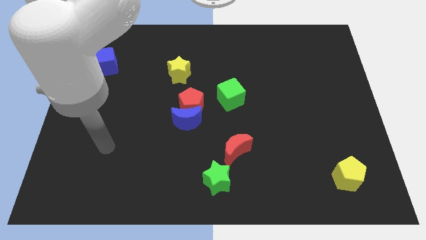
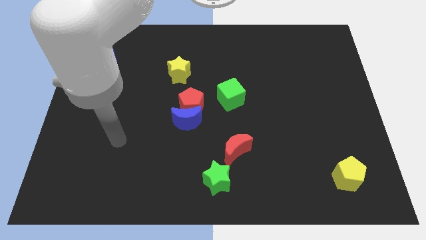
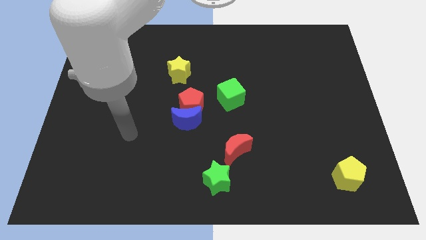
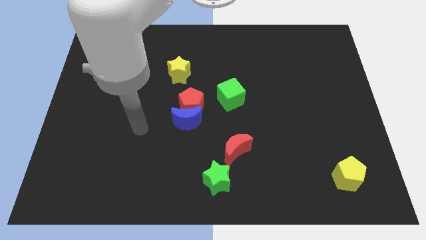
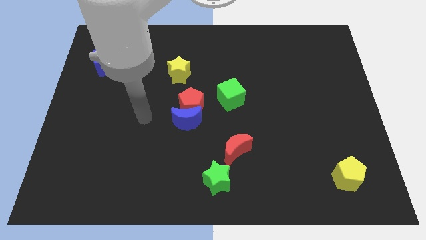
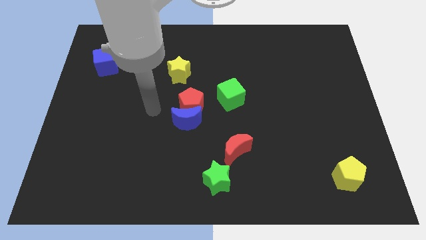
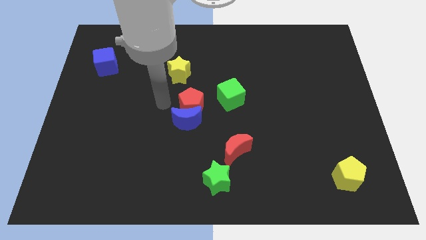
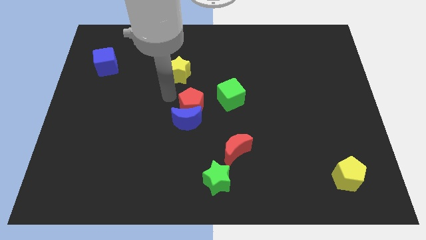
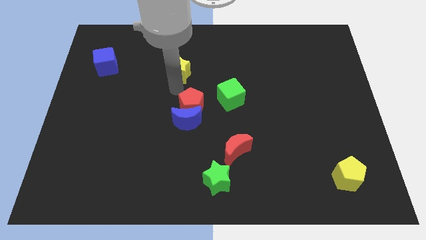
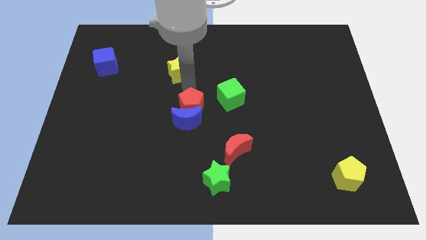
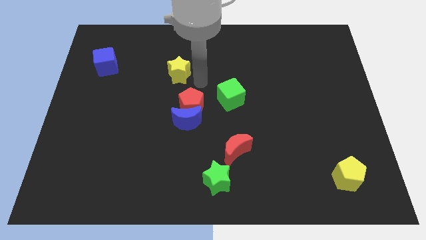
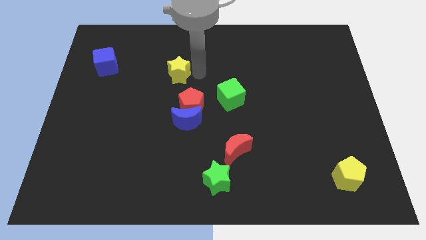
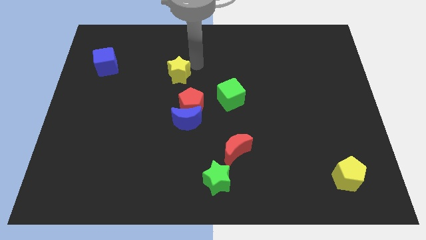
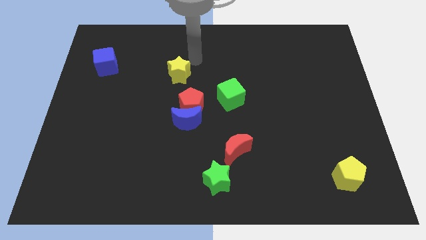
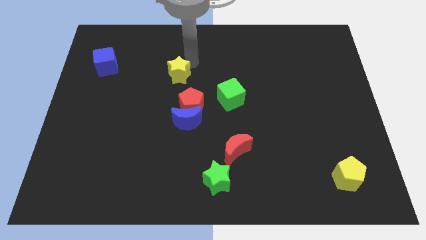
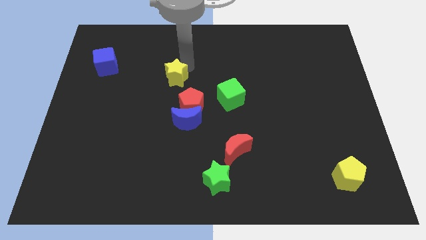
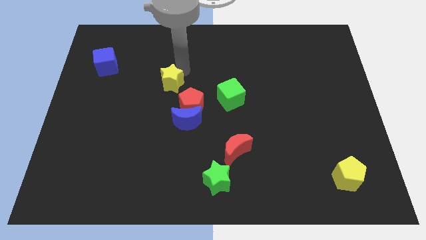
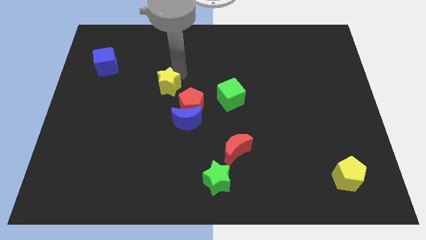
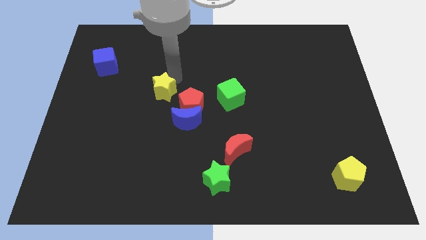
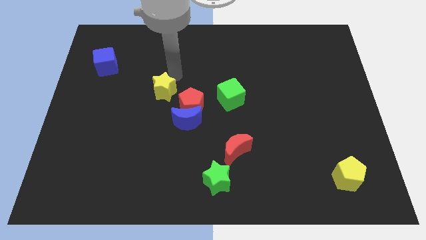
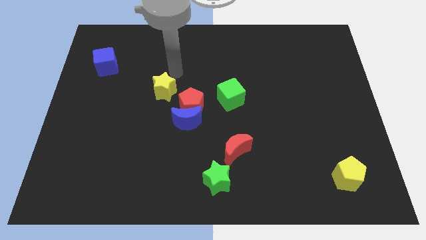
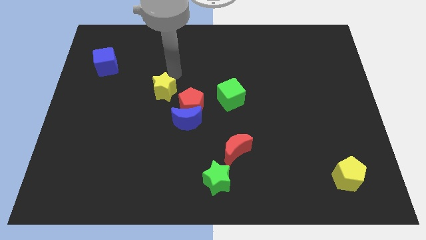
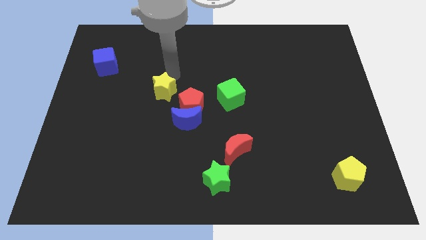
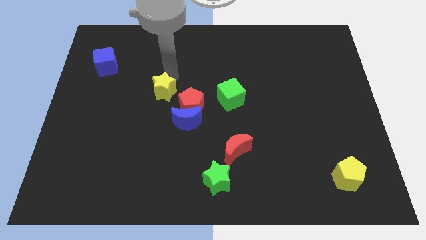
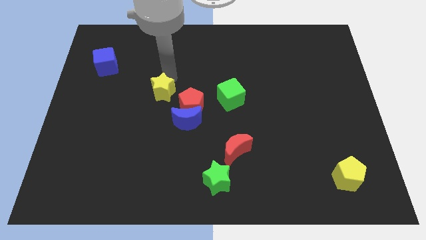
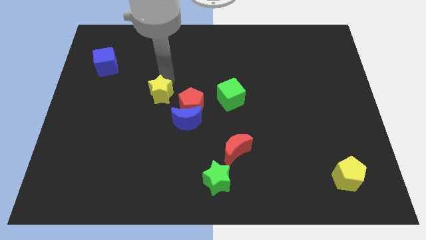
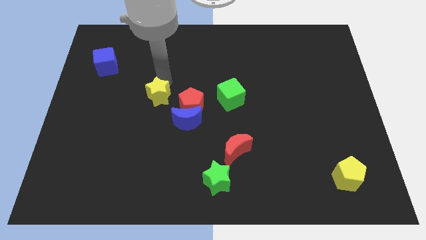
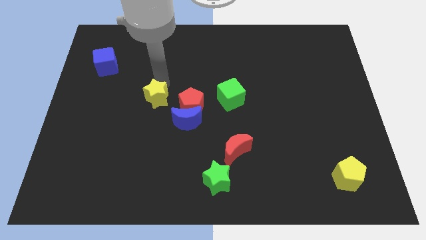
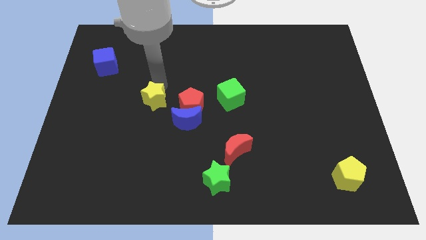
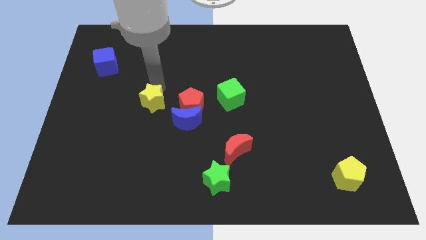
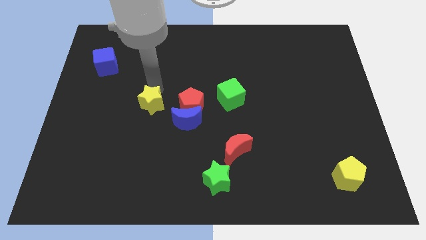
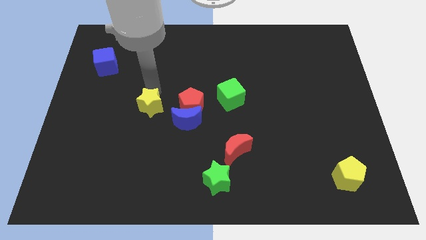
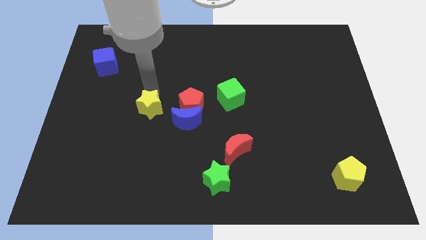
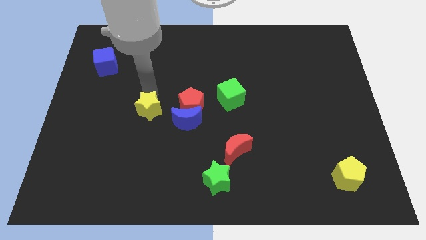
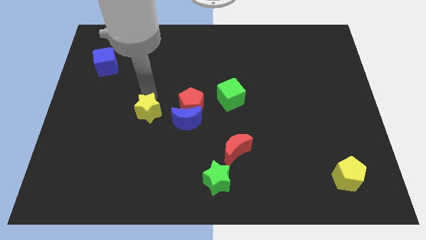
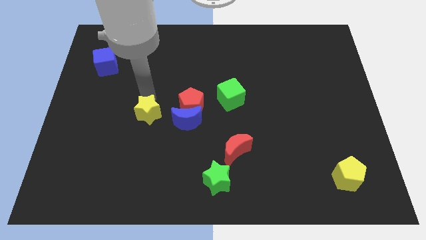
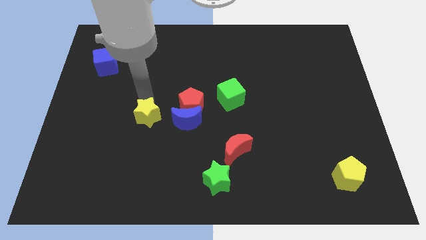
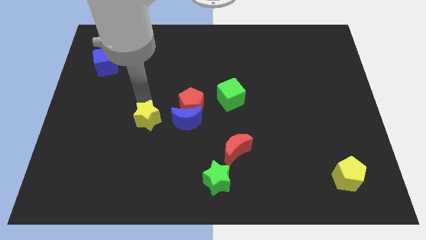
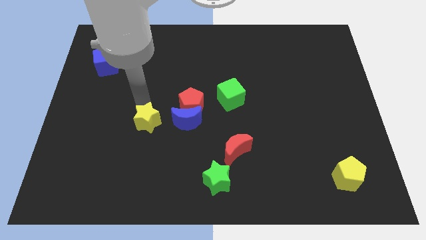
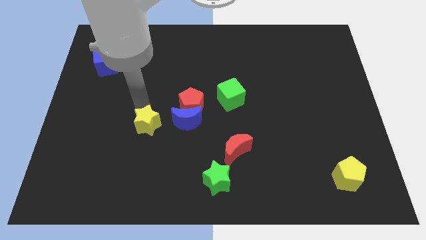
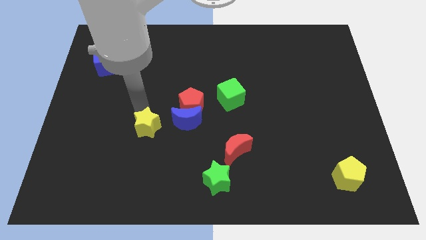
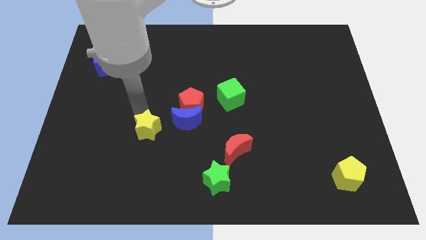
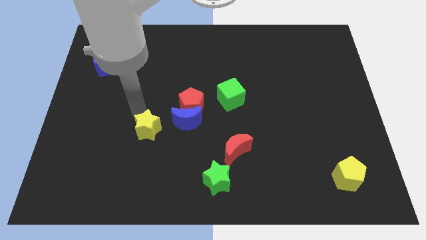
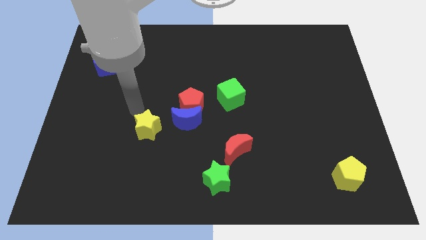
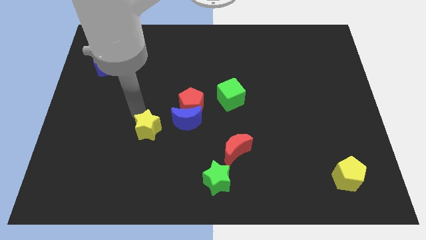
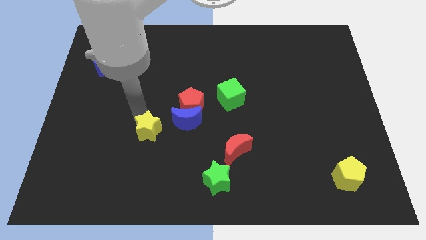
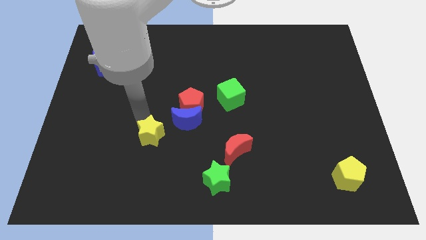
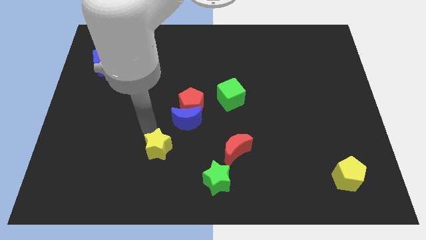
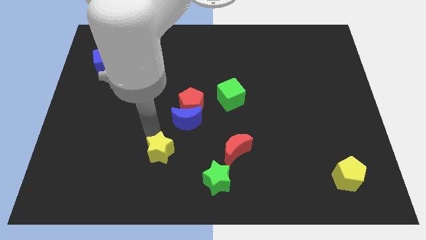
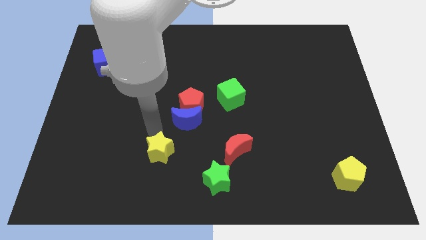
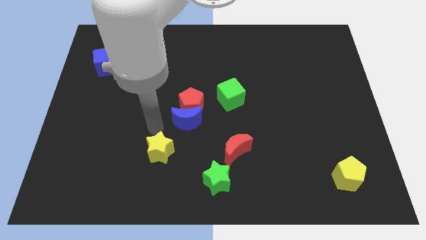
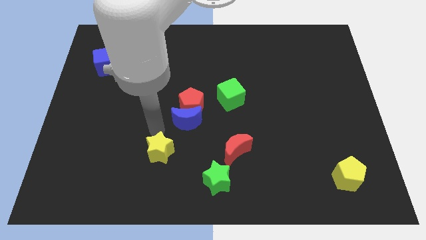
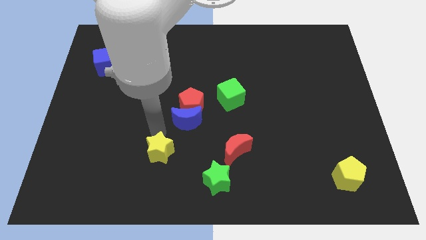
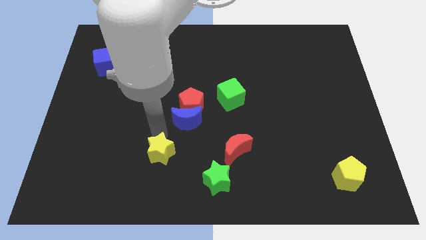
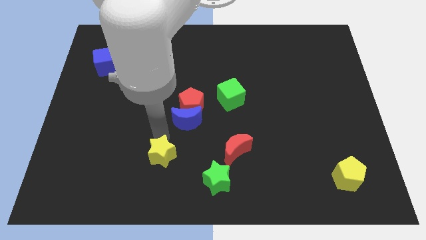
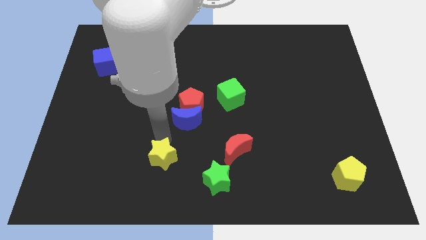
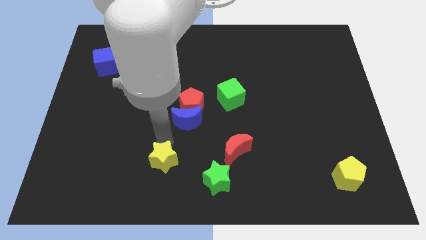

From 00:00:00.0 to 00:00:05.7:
push the yellow star to the left side of the green star

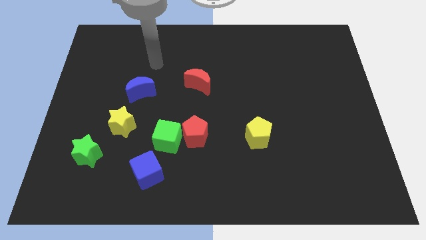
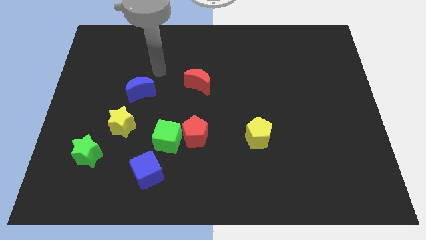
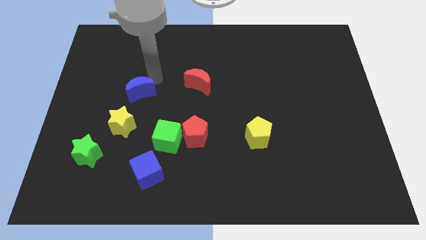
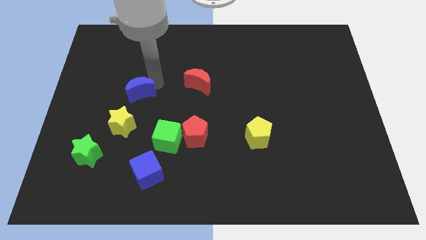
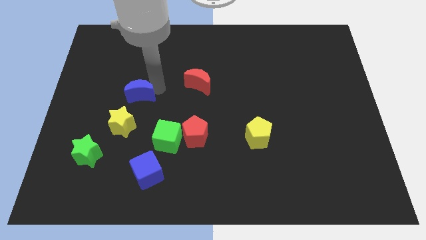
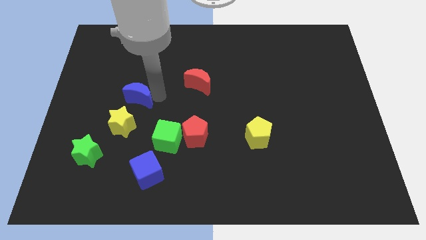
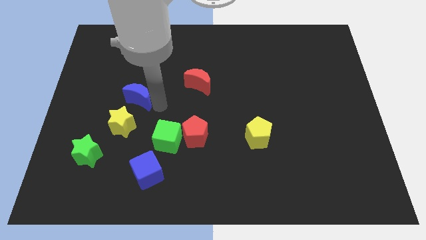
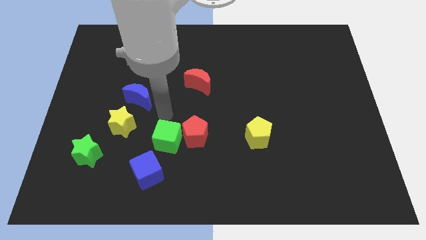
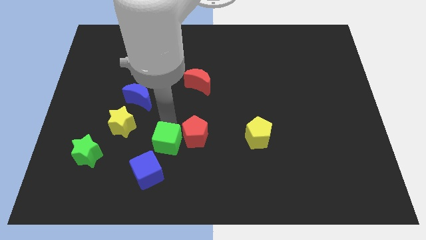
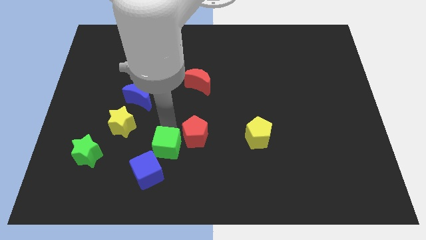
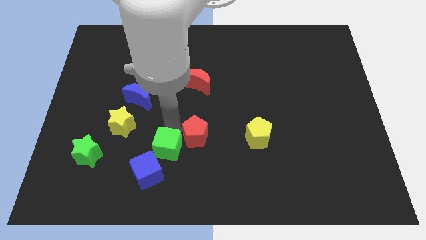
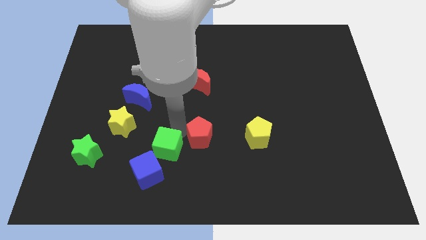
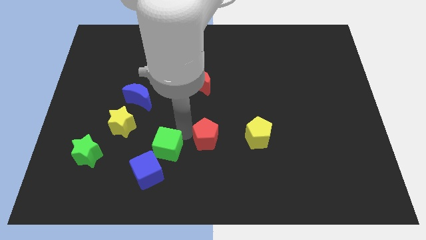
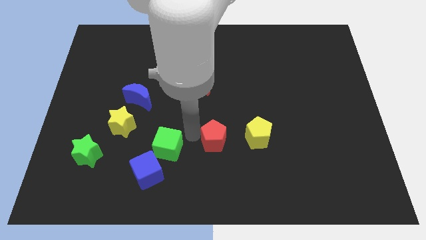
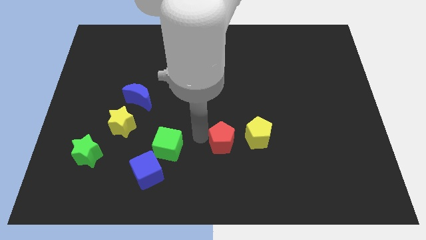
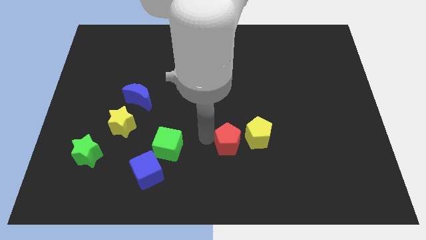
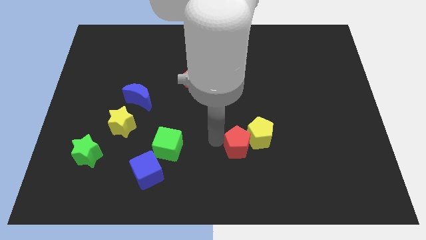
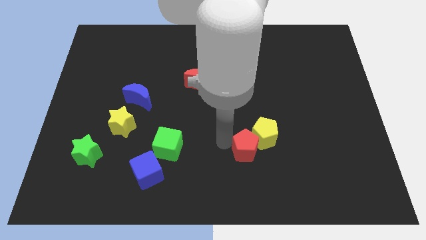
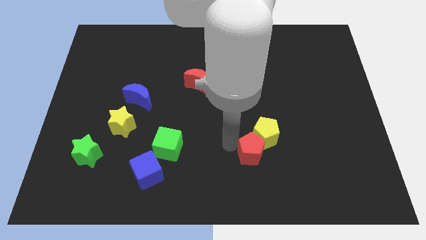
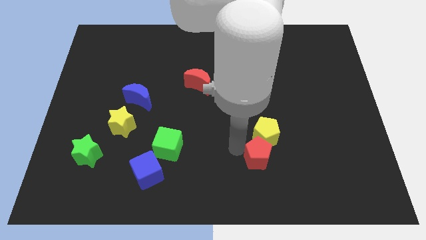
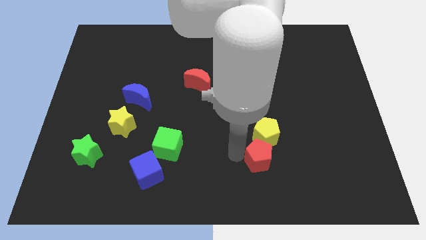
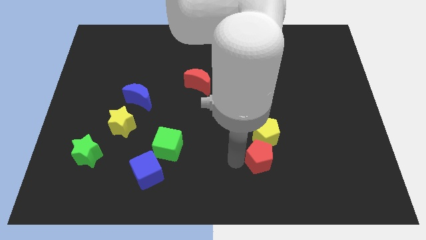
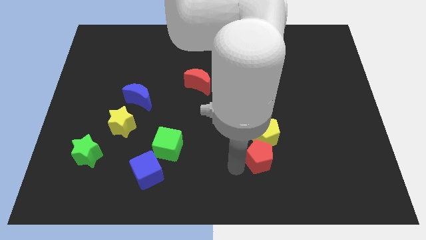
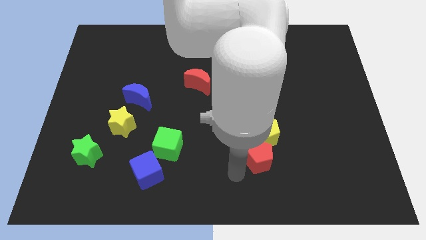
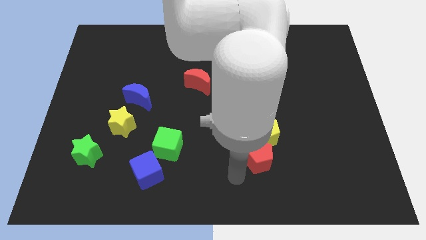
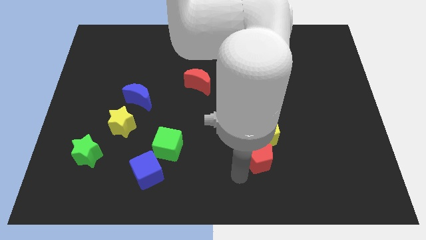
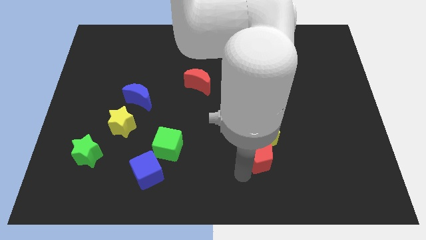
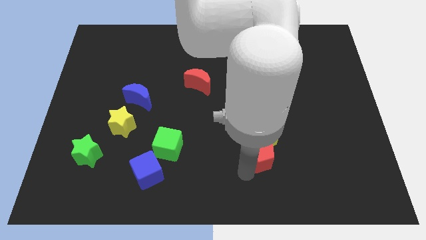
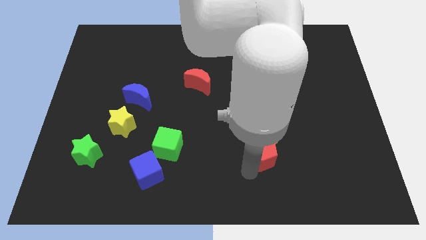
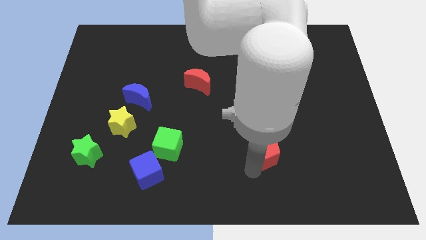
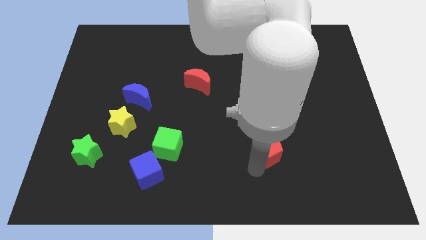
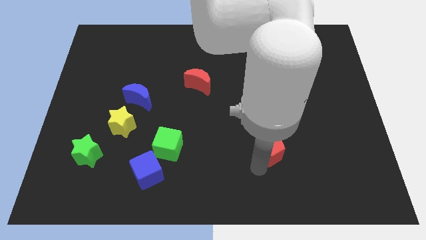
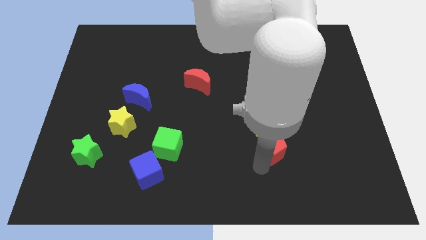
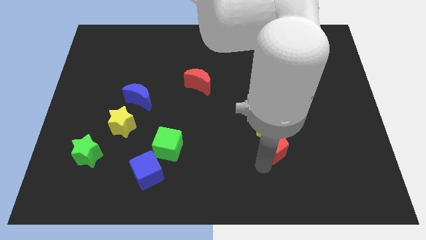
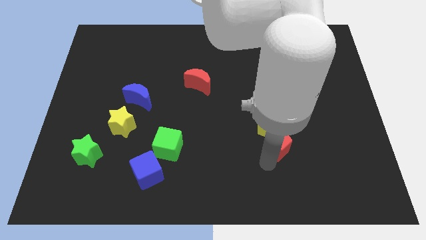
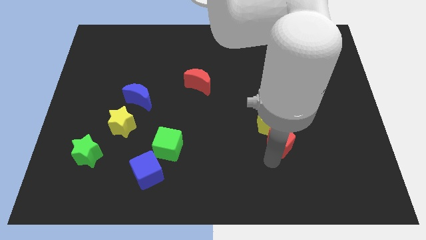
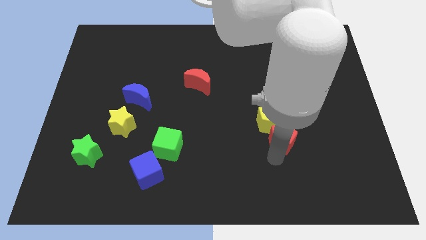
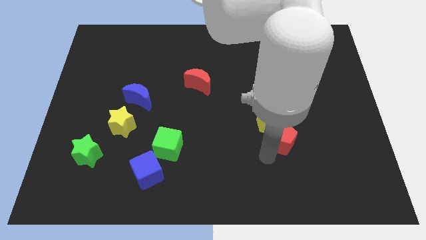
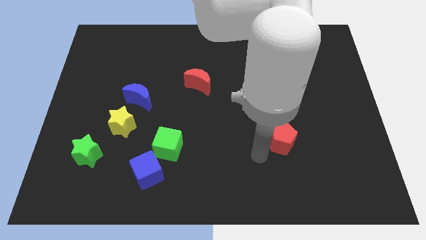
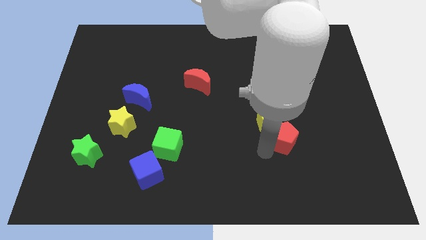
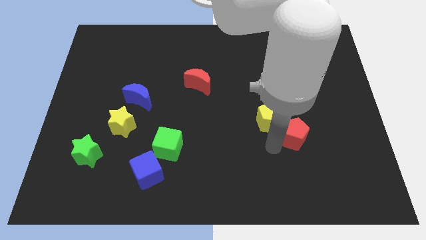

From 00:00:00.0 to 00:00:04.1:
push the red pentagon to the right side of the yellow pentagon
